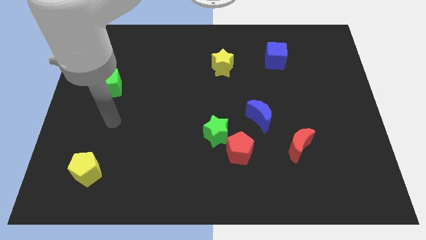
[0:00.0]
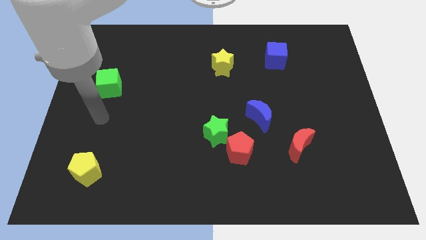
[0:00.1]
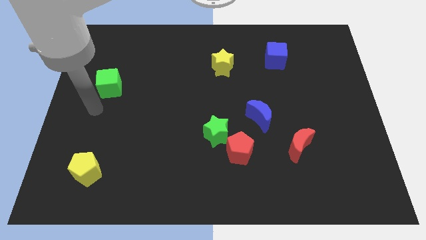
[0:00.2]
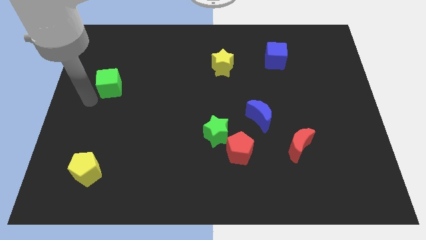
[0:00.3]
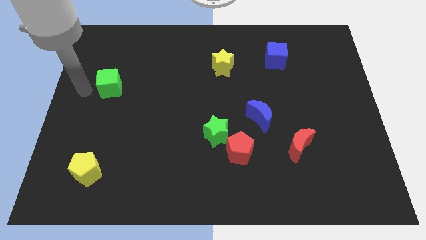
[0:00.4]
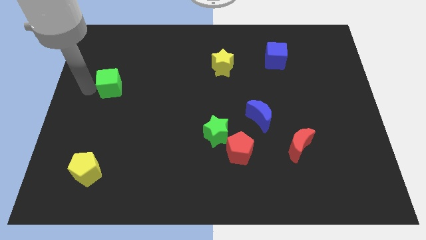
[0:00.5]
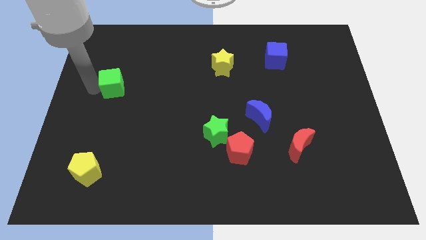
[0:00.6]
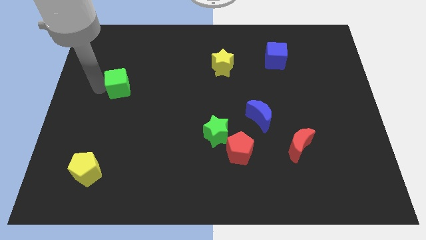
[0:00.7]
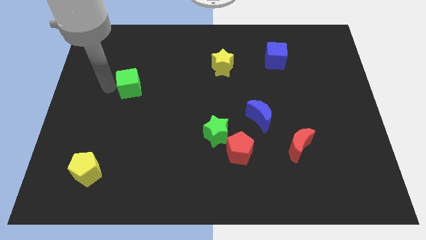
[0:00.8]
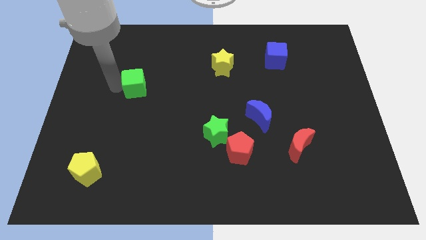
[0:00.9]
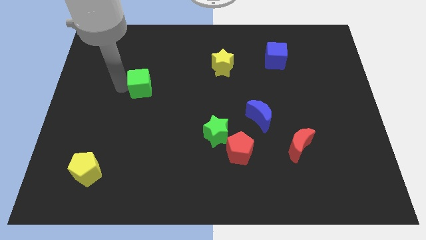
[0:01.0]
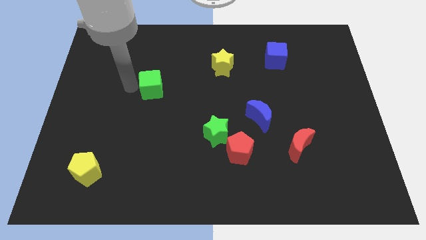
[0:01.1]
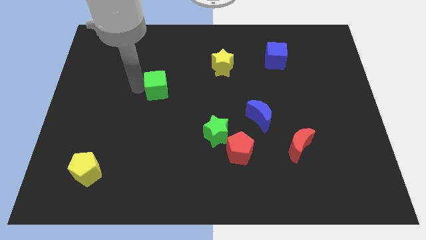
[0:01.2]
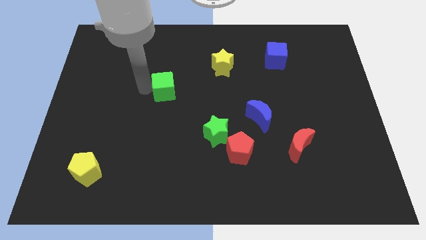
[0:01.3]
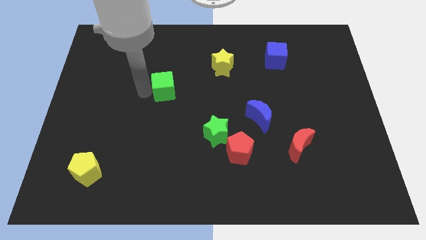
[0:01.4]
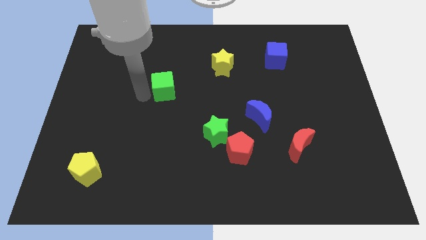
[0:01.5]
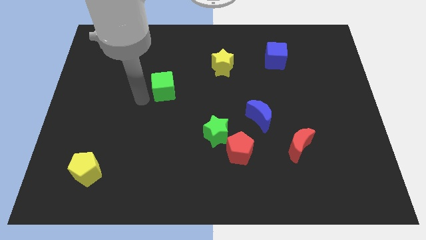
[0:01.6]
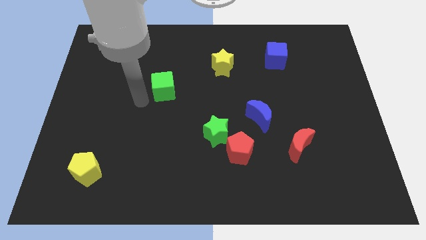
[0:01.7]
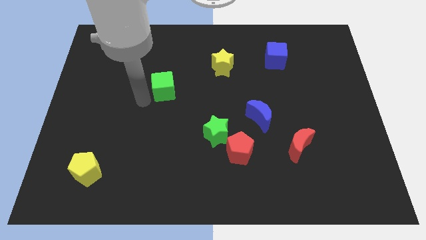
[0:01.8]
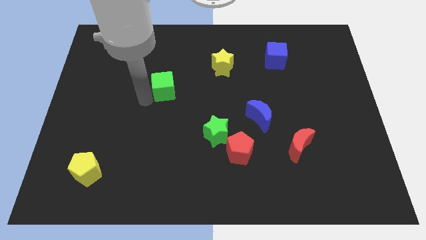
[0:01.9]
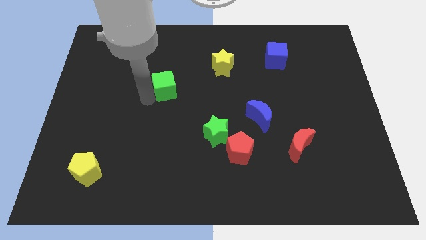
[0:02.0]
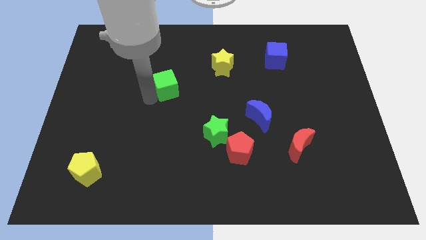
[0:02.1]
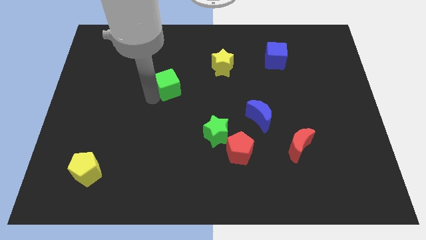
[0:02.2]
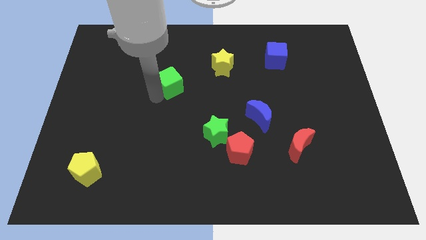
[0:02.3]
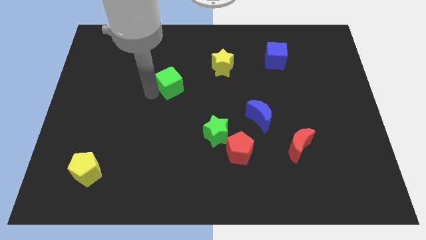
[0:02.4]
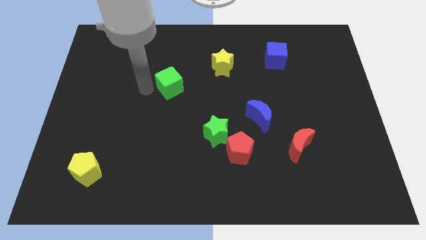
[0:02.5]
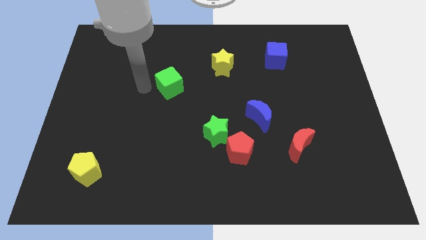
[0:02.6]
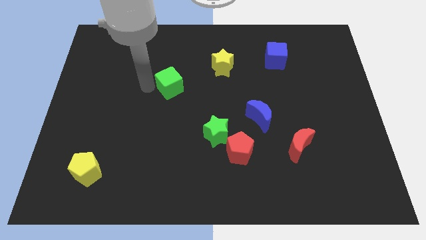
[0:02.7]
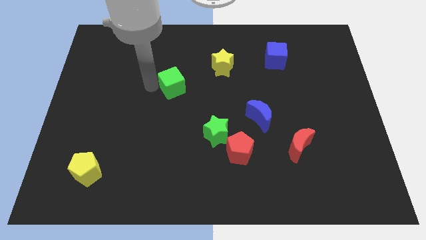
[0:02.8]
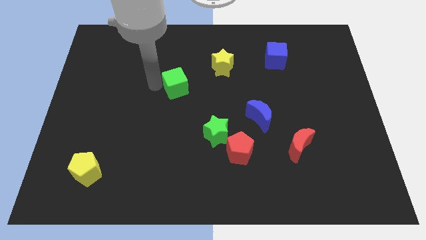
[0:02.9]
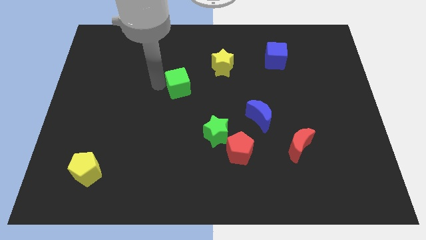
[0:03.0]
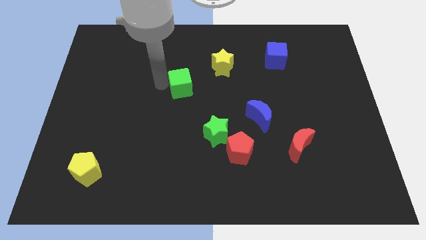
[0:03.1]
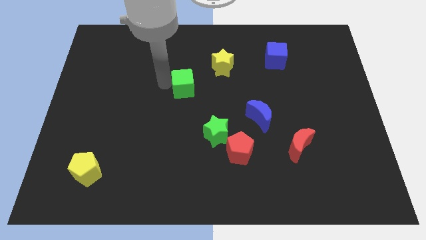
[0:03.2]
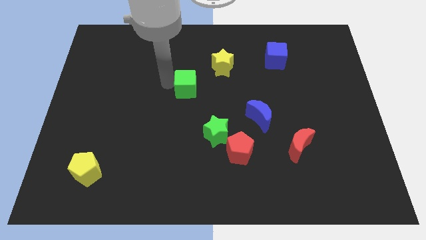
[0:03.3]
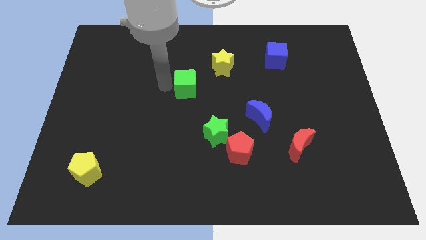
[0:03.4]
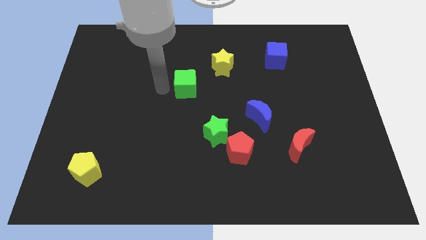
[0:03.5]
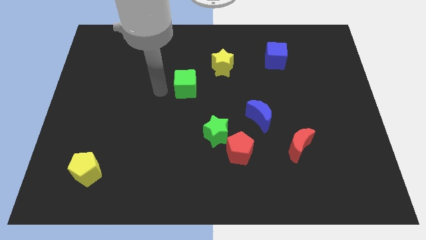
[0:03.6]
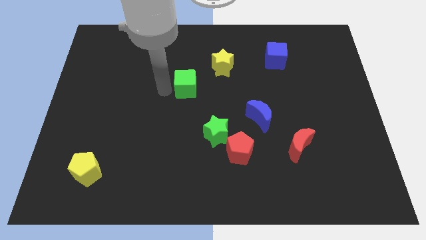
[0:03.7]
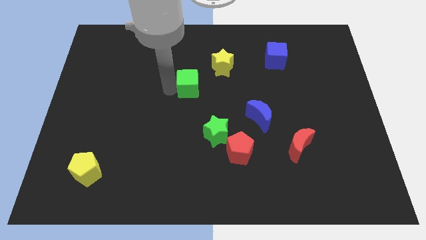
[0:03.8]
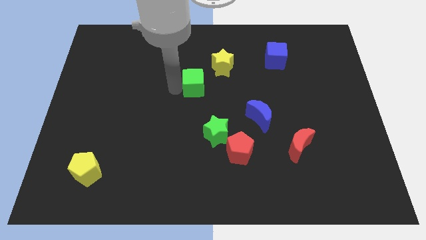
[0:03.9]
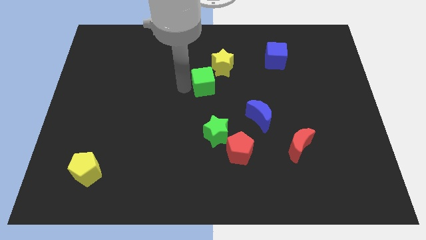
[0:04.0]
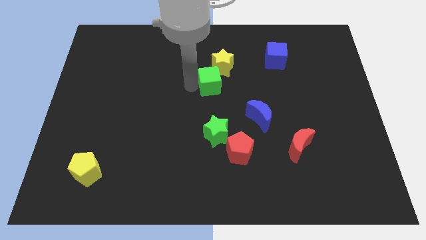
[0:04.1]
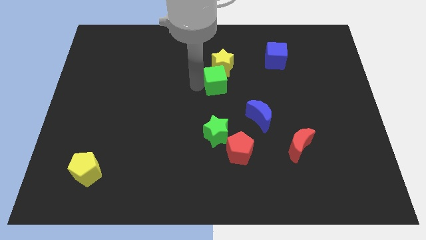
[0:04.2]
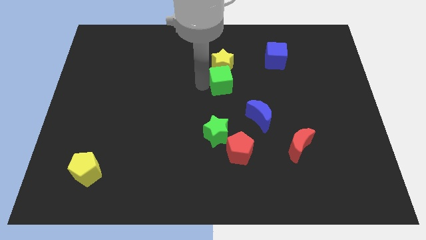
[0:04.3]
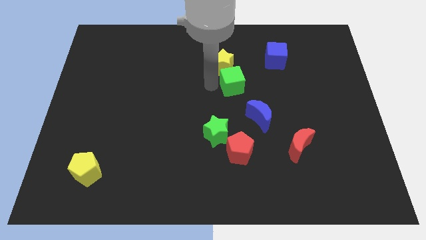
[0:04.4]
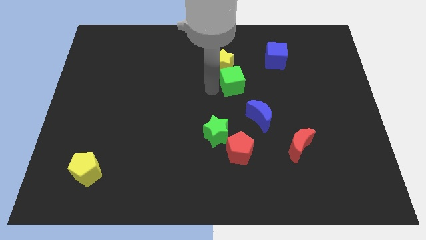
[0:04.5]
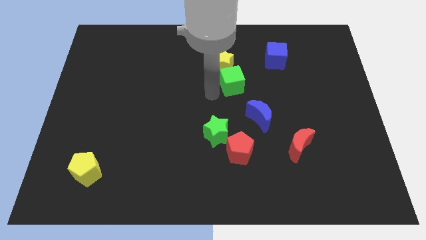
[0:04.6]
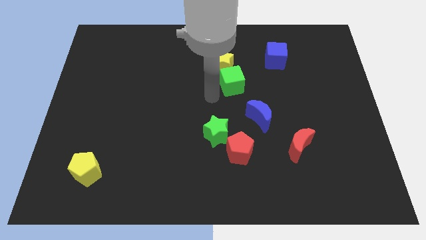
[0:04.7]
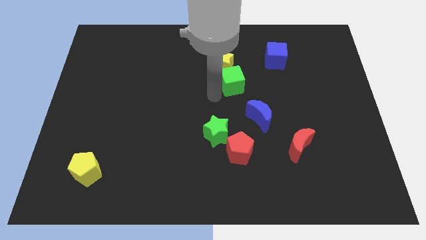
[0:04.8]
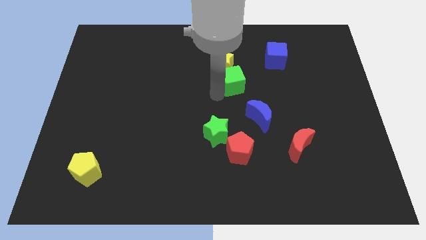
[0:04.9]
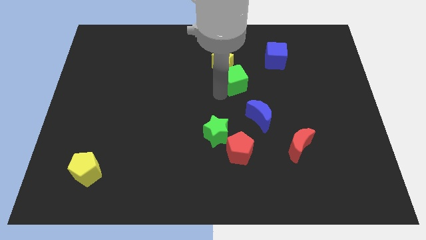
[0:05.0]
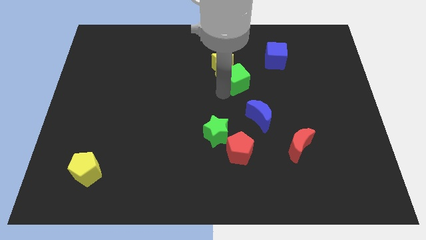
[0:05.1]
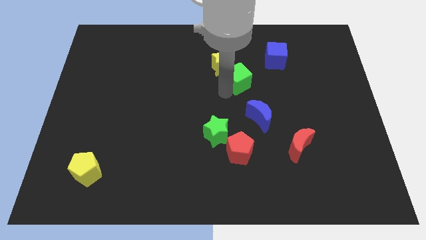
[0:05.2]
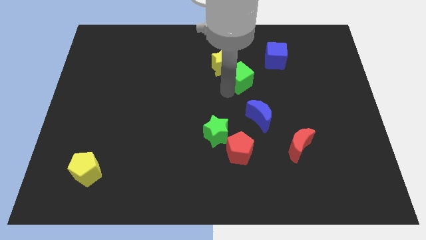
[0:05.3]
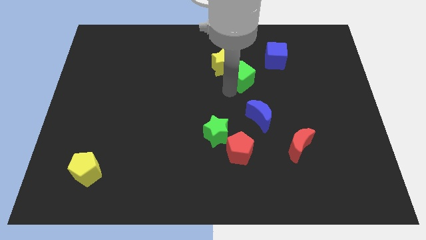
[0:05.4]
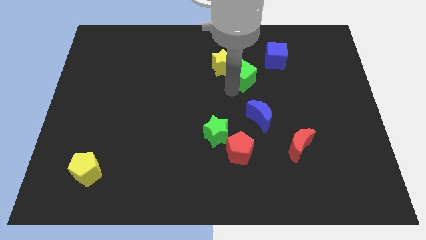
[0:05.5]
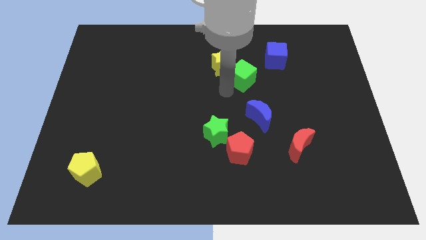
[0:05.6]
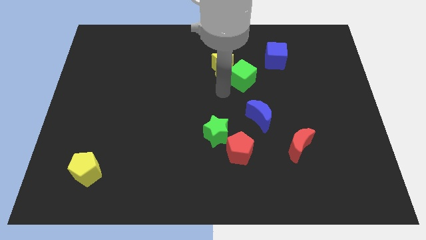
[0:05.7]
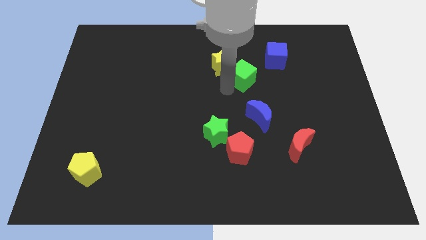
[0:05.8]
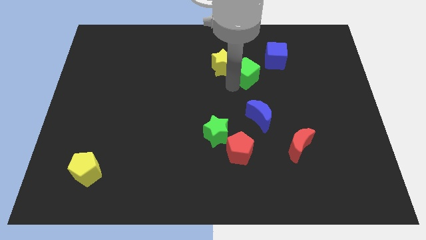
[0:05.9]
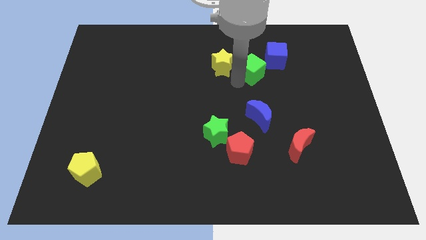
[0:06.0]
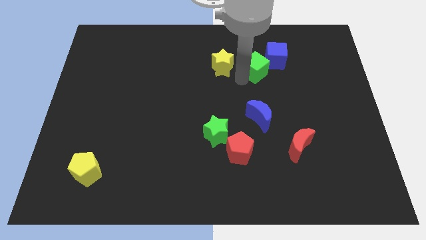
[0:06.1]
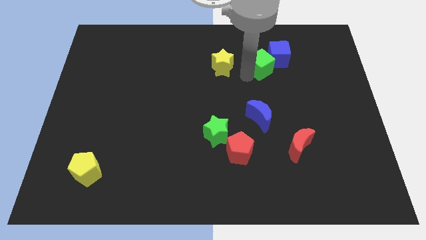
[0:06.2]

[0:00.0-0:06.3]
push the green cube close to the blue cube
